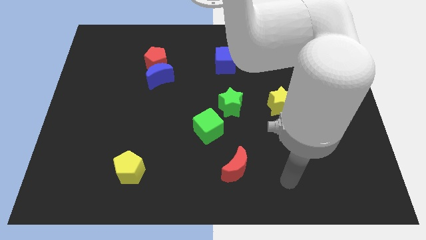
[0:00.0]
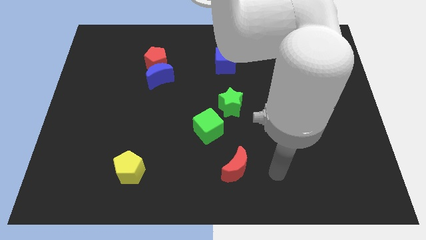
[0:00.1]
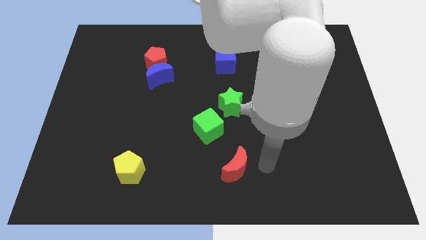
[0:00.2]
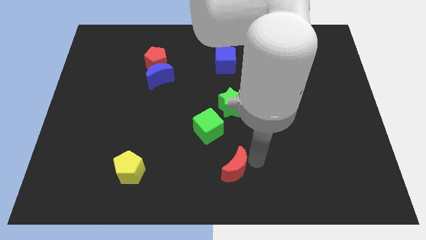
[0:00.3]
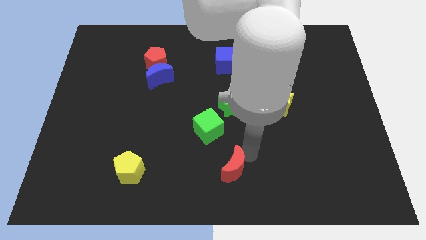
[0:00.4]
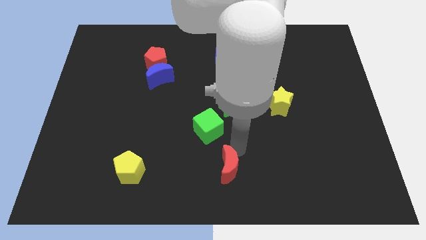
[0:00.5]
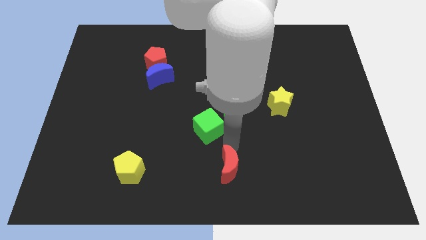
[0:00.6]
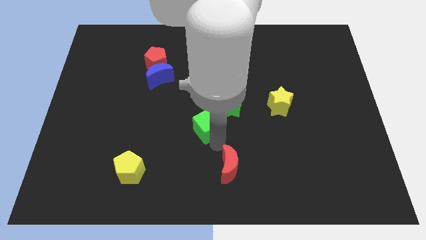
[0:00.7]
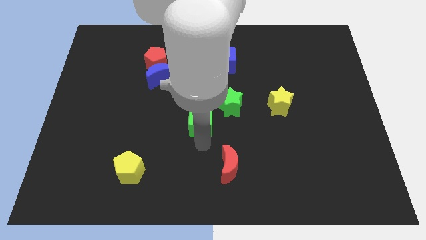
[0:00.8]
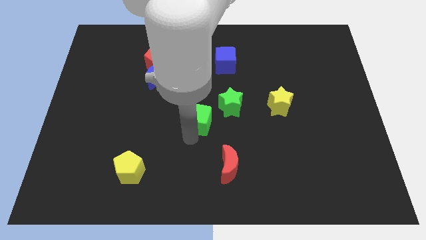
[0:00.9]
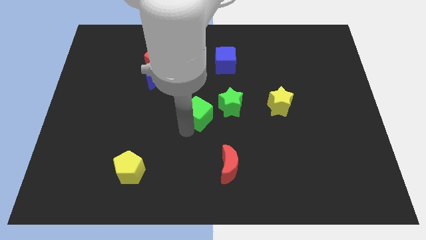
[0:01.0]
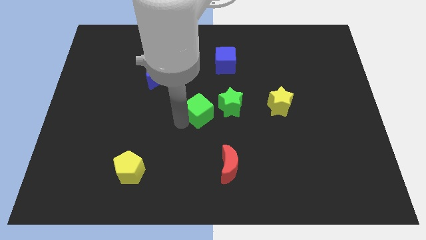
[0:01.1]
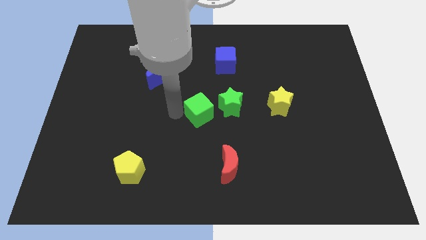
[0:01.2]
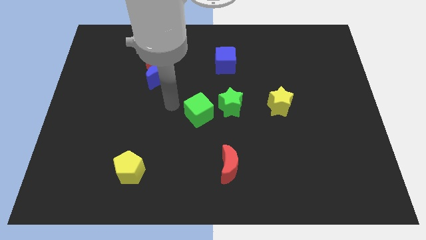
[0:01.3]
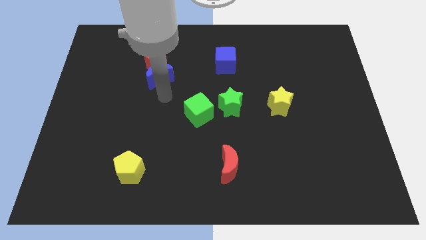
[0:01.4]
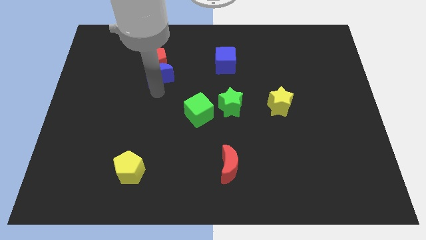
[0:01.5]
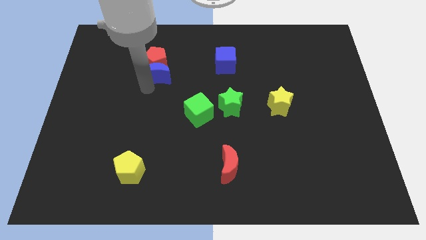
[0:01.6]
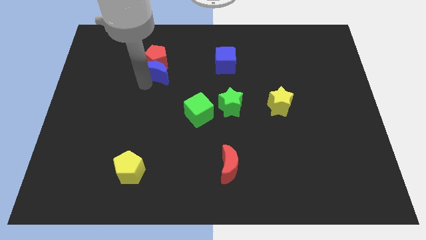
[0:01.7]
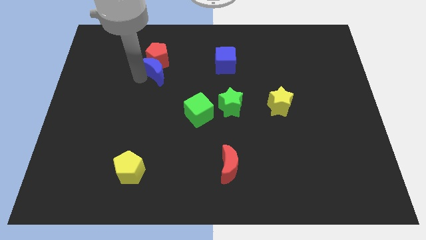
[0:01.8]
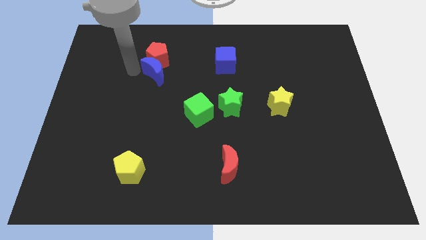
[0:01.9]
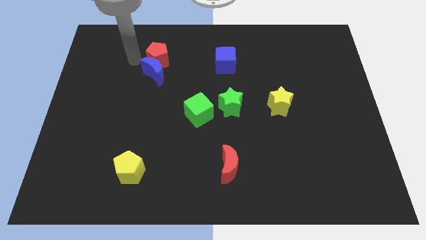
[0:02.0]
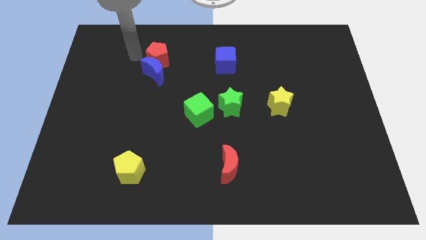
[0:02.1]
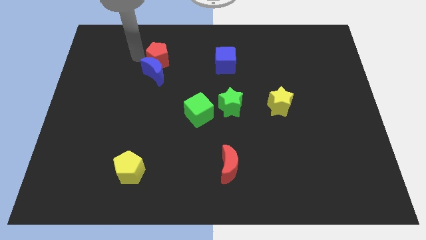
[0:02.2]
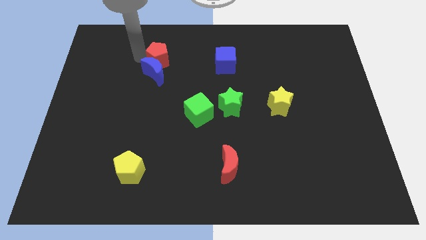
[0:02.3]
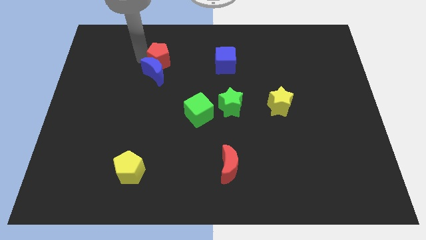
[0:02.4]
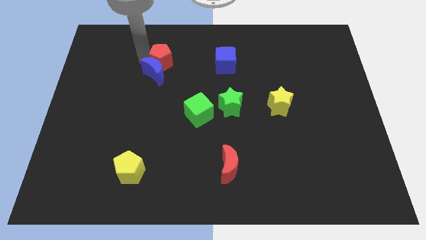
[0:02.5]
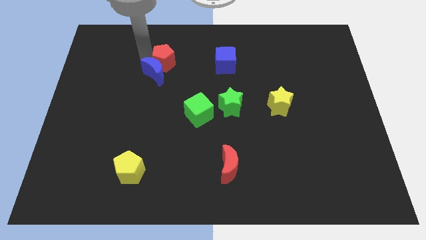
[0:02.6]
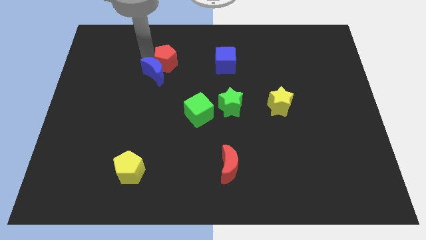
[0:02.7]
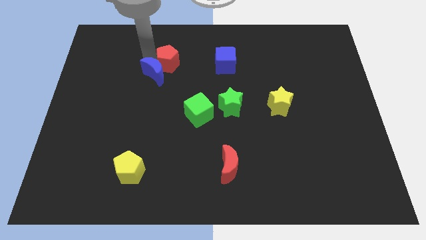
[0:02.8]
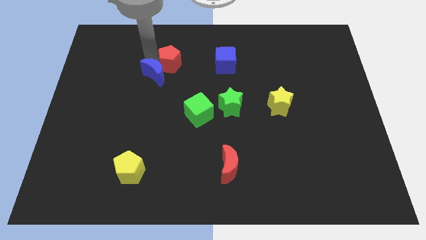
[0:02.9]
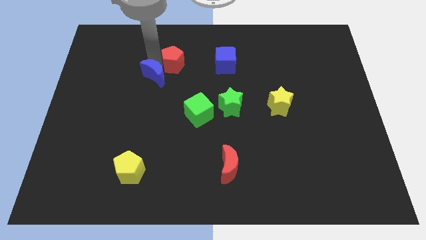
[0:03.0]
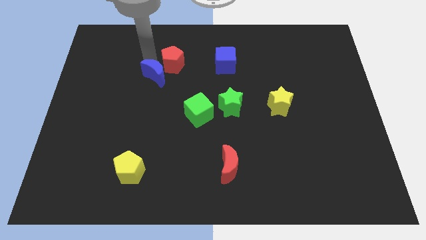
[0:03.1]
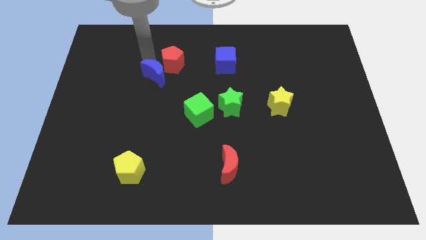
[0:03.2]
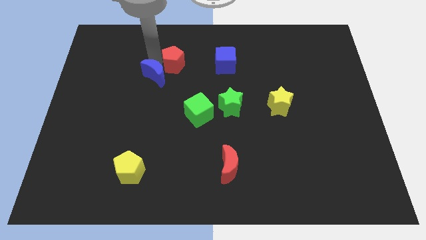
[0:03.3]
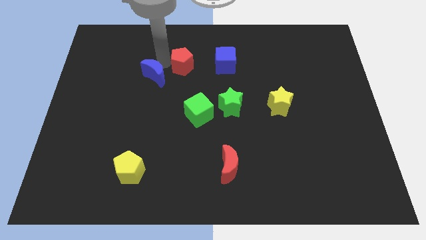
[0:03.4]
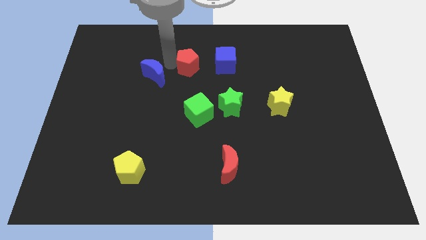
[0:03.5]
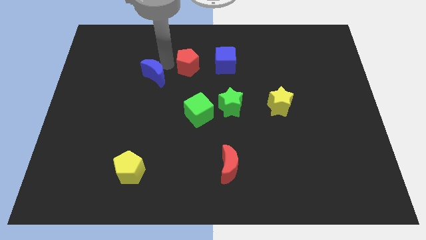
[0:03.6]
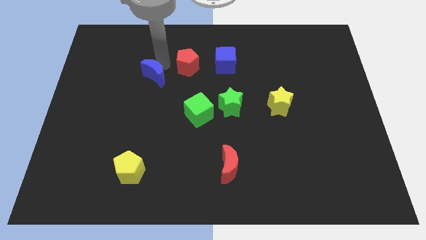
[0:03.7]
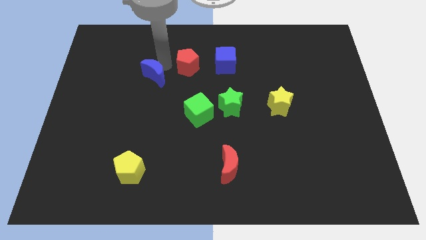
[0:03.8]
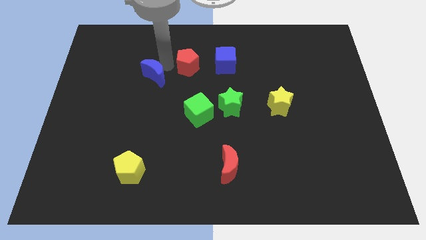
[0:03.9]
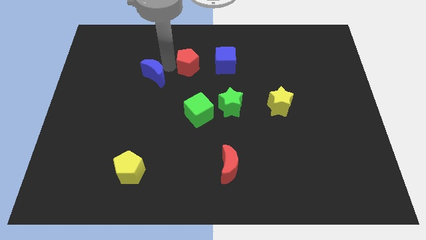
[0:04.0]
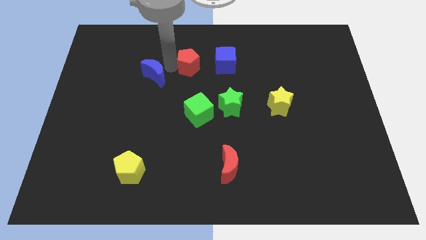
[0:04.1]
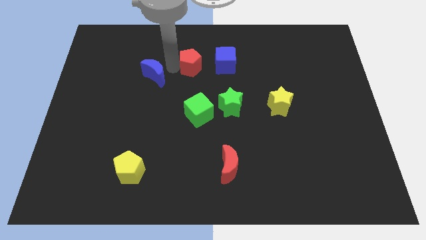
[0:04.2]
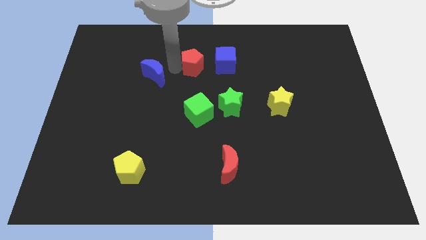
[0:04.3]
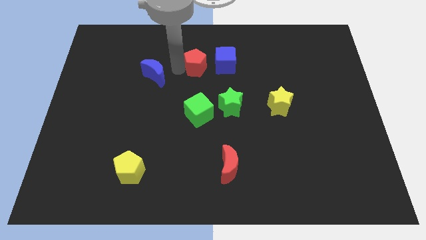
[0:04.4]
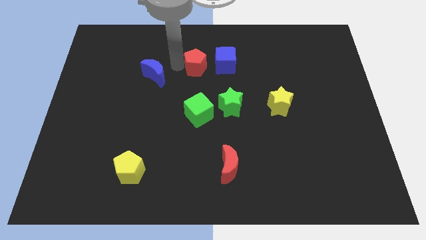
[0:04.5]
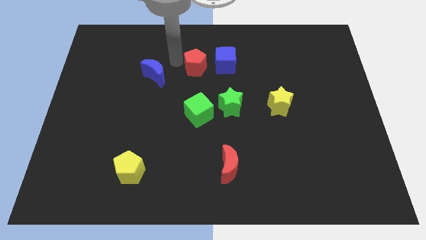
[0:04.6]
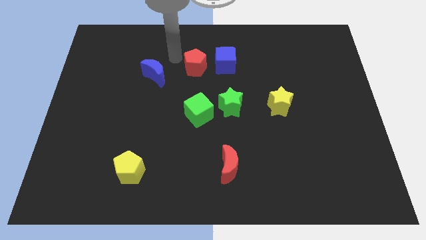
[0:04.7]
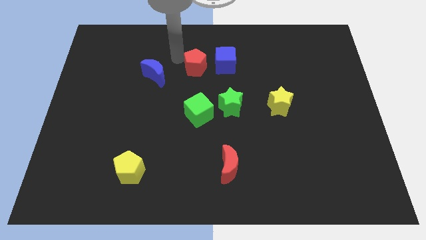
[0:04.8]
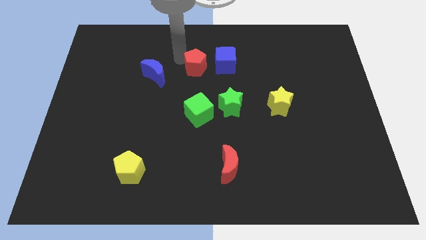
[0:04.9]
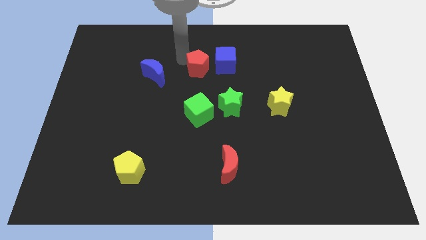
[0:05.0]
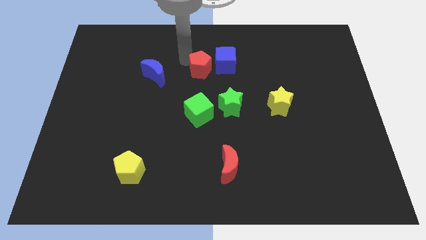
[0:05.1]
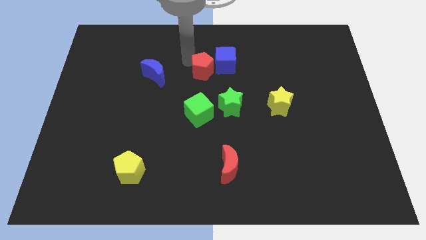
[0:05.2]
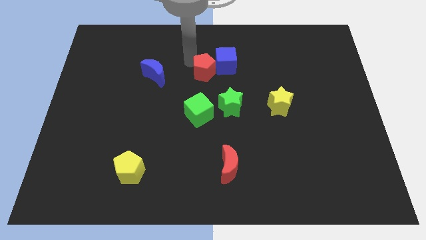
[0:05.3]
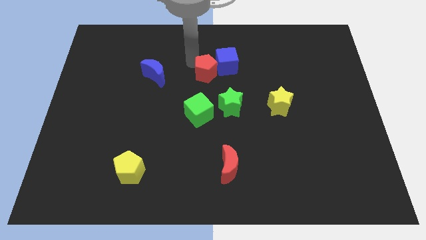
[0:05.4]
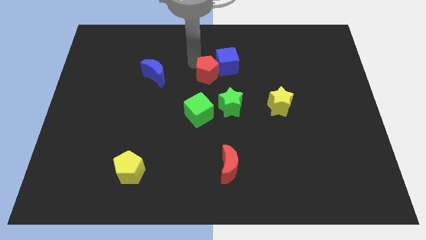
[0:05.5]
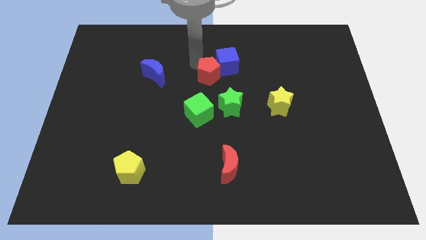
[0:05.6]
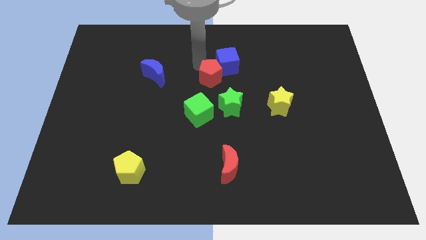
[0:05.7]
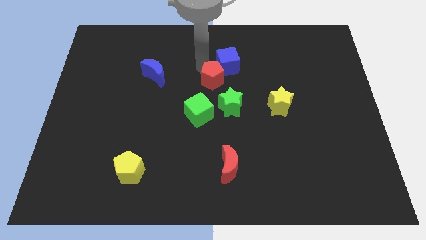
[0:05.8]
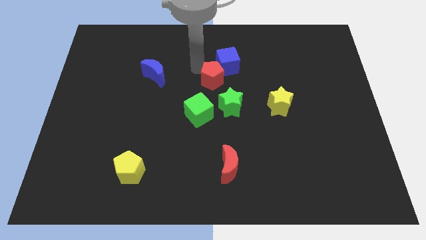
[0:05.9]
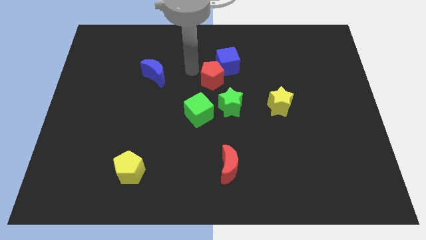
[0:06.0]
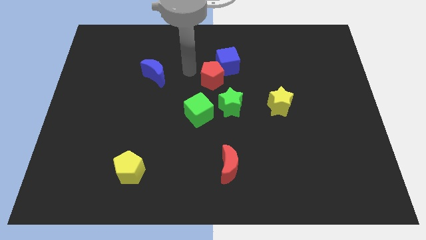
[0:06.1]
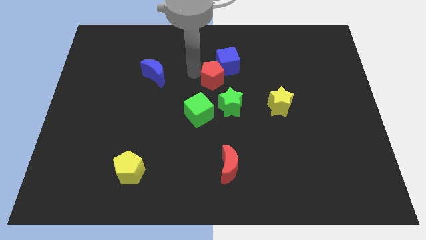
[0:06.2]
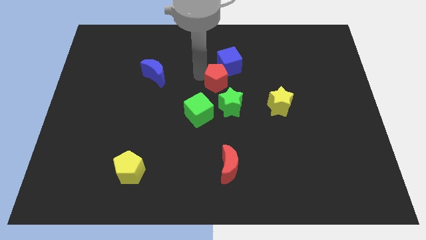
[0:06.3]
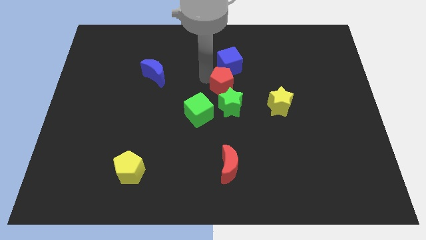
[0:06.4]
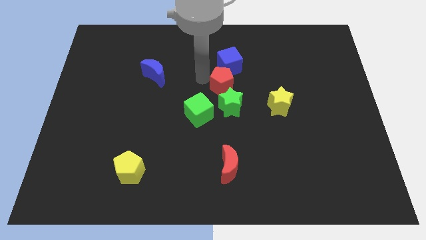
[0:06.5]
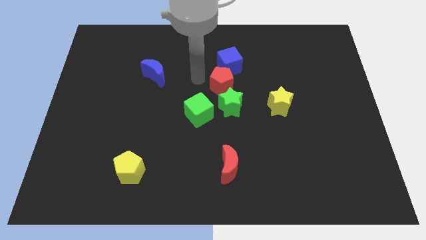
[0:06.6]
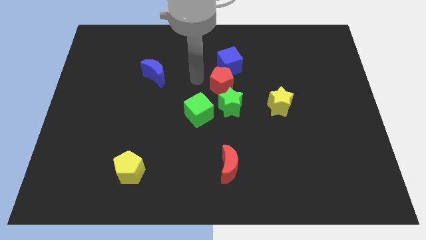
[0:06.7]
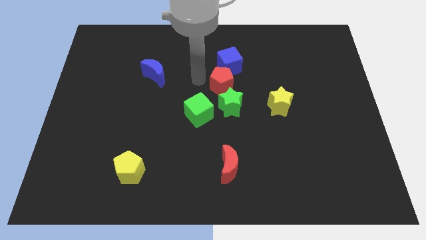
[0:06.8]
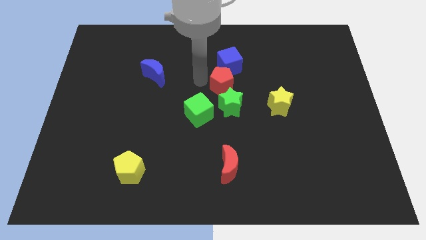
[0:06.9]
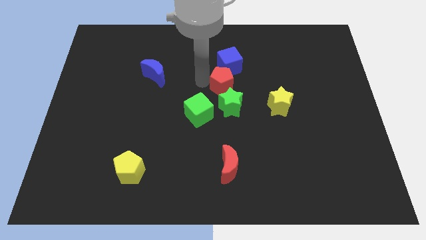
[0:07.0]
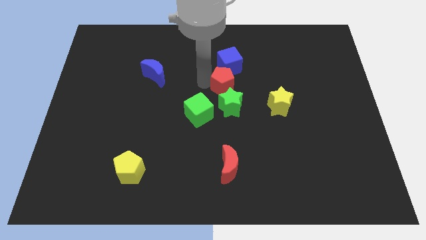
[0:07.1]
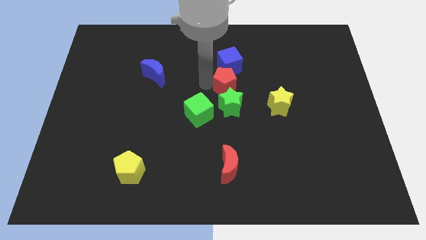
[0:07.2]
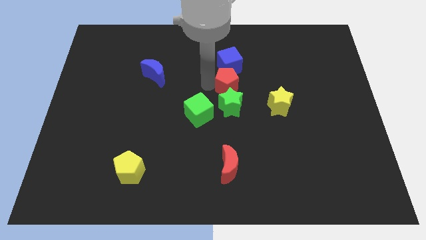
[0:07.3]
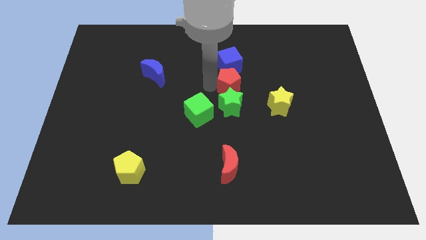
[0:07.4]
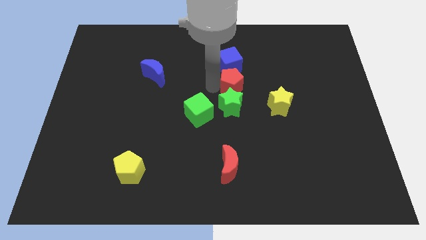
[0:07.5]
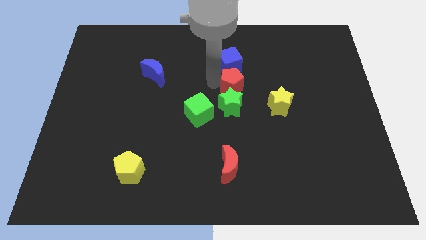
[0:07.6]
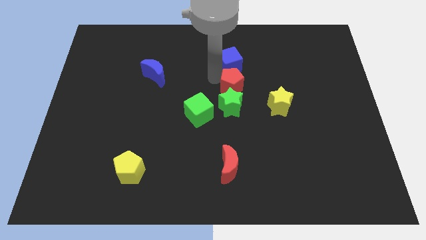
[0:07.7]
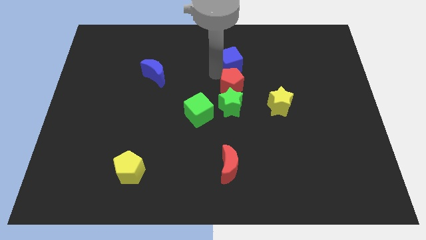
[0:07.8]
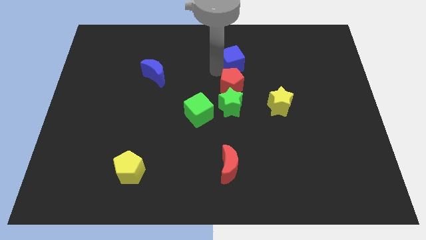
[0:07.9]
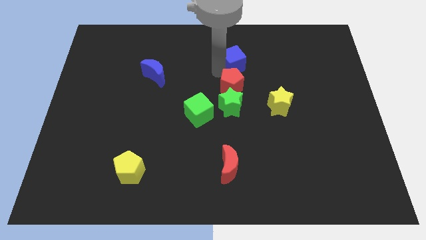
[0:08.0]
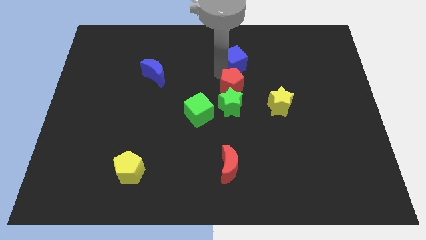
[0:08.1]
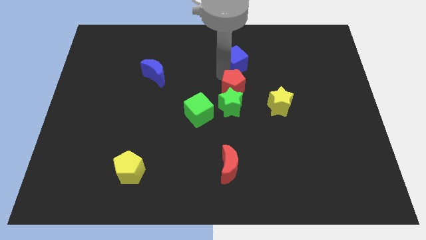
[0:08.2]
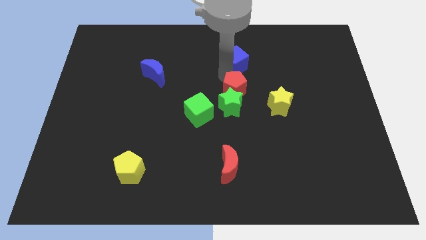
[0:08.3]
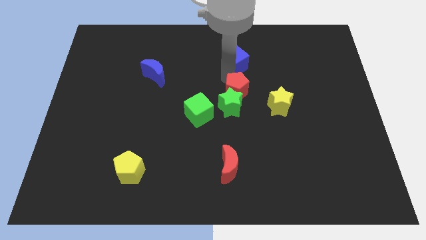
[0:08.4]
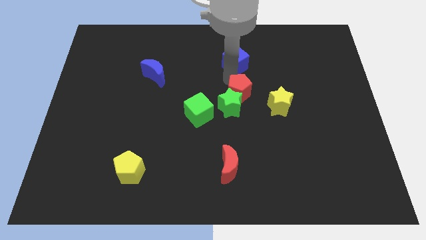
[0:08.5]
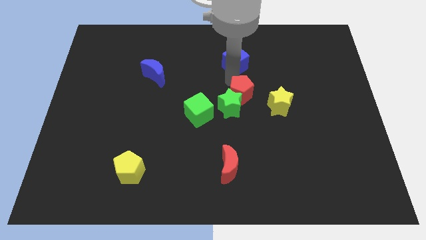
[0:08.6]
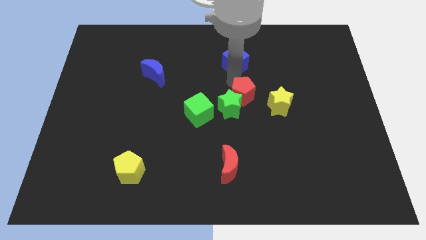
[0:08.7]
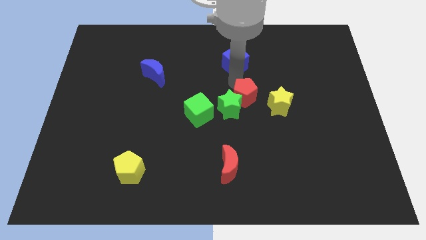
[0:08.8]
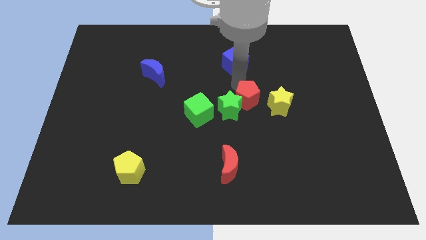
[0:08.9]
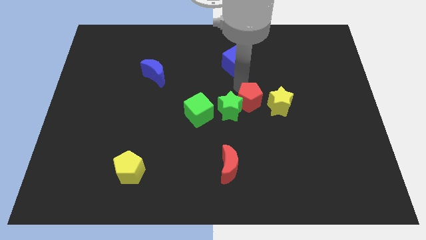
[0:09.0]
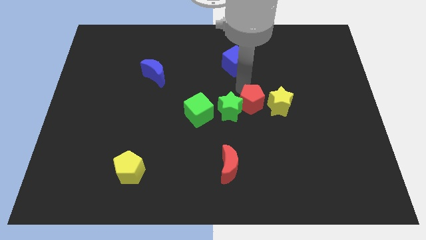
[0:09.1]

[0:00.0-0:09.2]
push the red pentagon diagonally down and to the left of the yellow star
